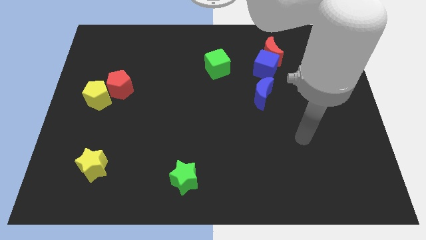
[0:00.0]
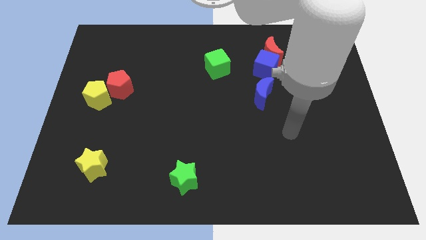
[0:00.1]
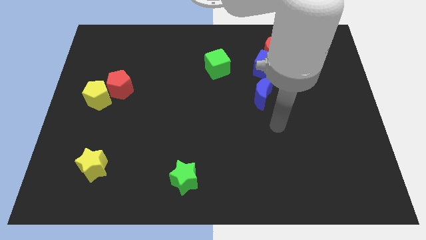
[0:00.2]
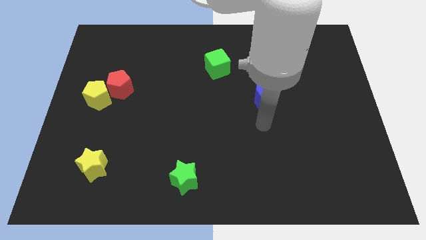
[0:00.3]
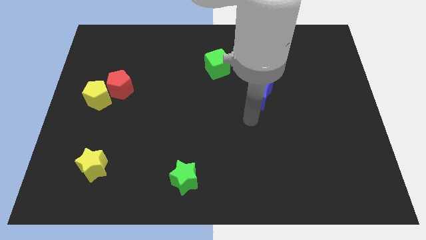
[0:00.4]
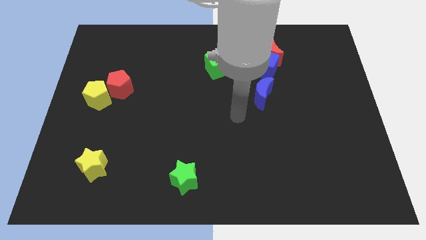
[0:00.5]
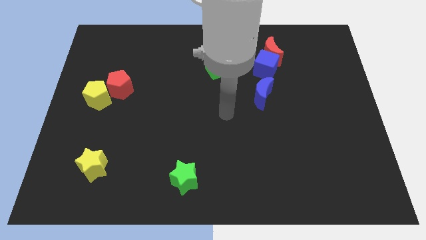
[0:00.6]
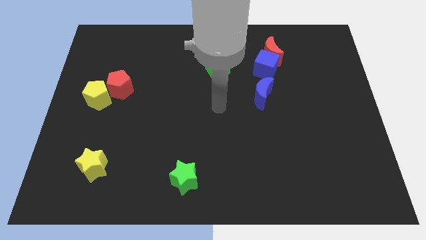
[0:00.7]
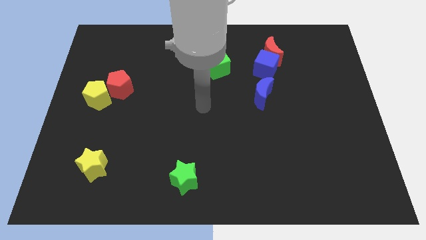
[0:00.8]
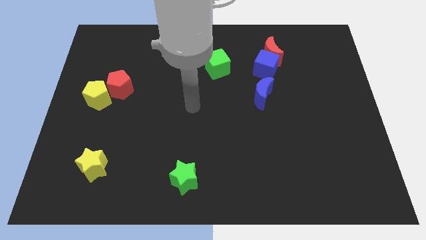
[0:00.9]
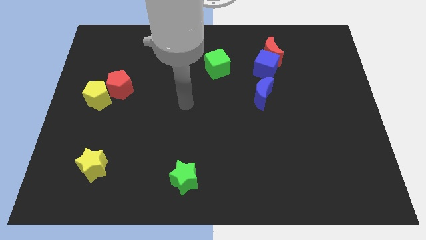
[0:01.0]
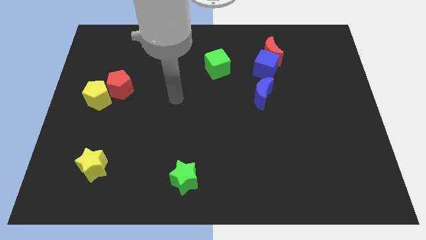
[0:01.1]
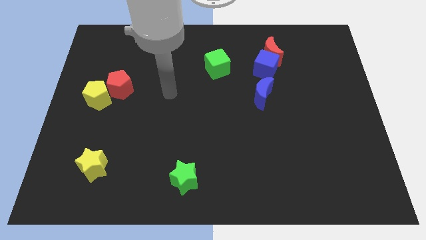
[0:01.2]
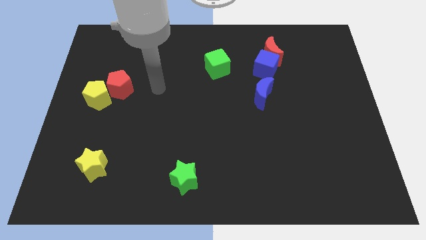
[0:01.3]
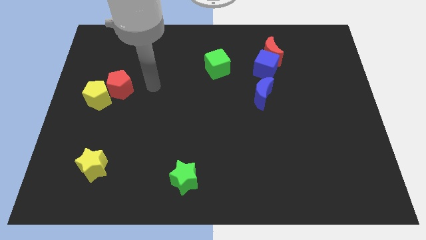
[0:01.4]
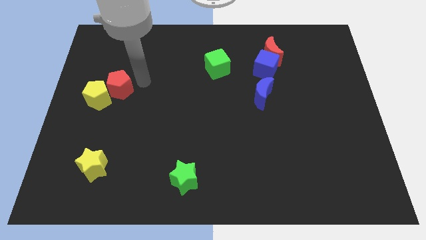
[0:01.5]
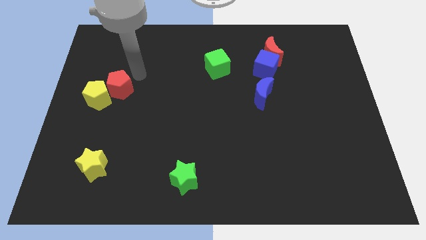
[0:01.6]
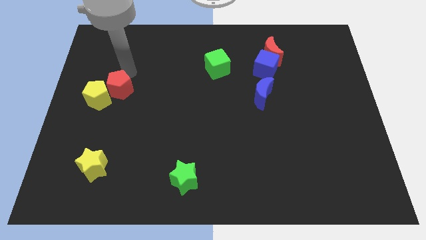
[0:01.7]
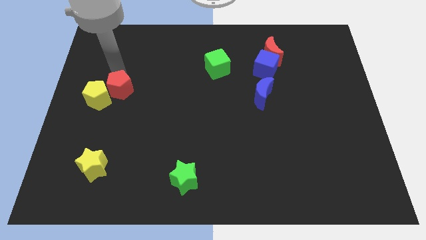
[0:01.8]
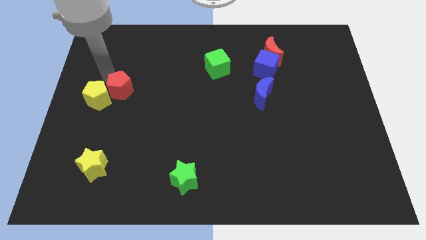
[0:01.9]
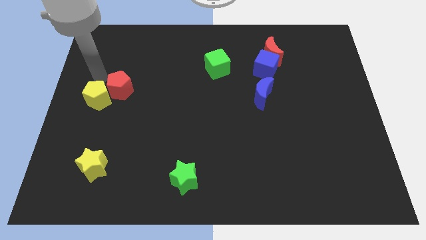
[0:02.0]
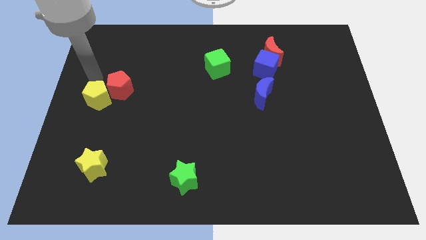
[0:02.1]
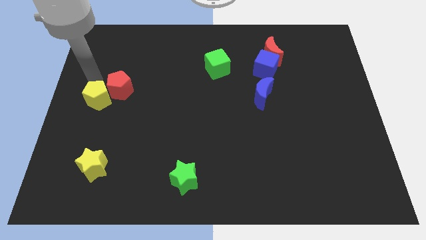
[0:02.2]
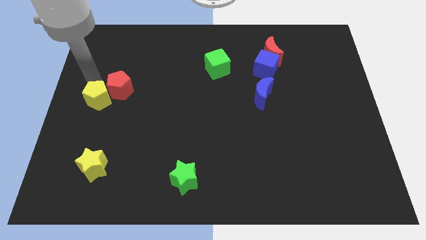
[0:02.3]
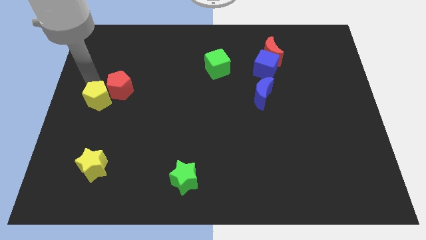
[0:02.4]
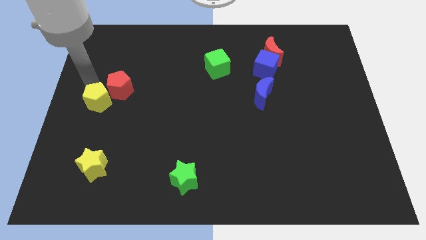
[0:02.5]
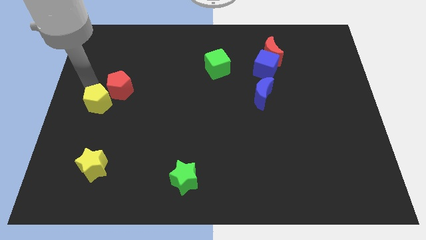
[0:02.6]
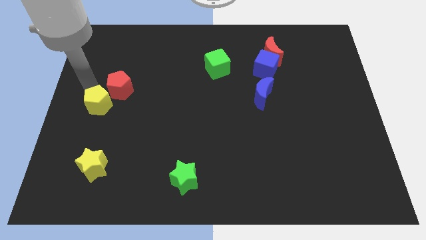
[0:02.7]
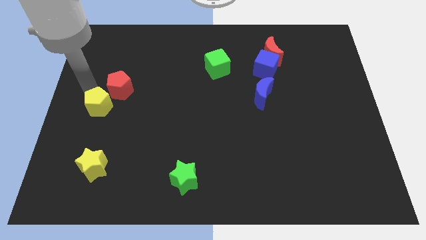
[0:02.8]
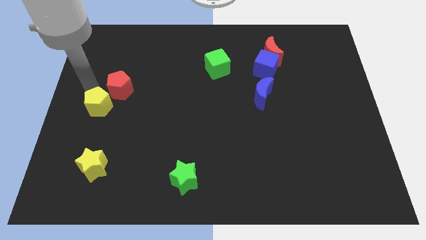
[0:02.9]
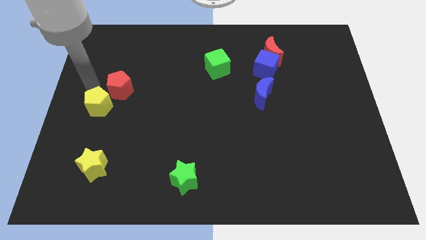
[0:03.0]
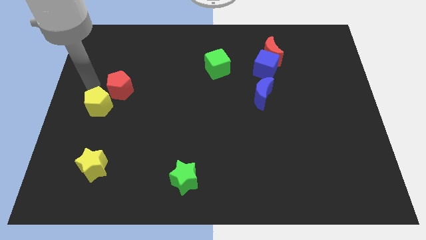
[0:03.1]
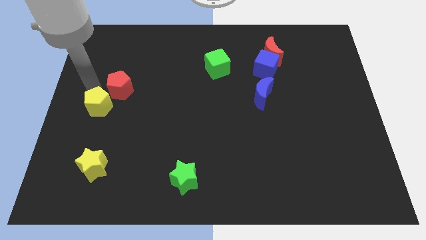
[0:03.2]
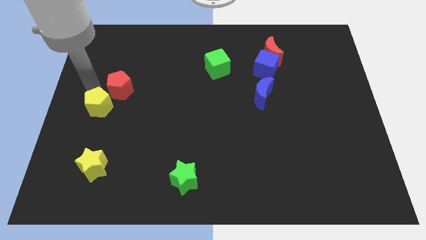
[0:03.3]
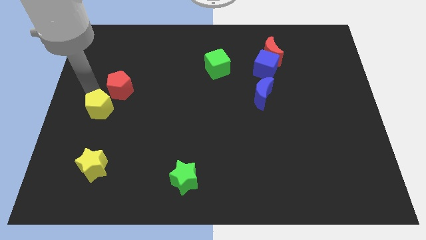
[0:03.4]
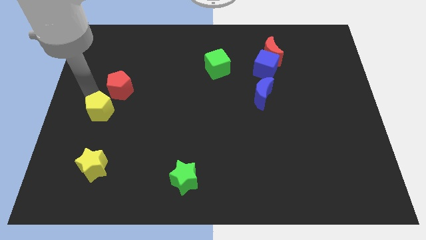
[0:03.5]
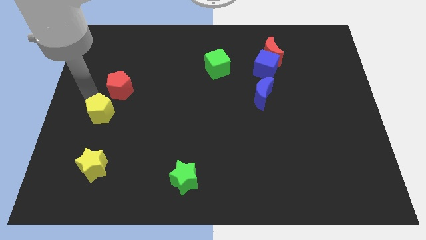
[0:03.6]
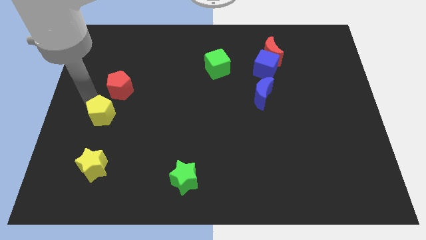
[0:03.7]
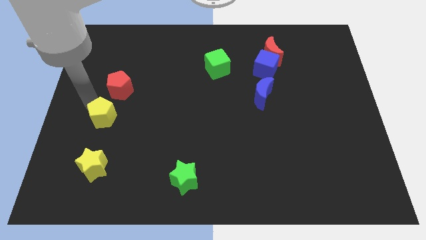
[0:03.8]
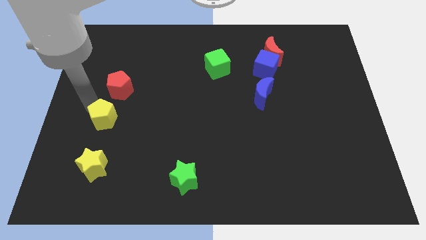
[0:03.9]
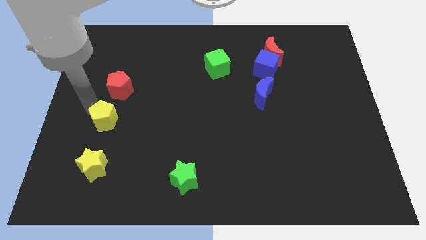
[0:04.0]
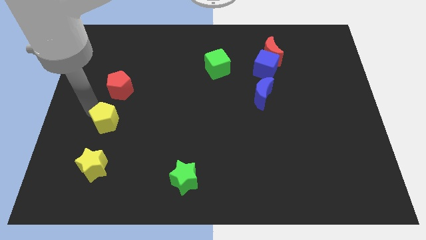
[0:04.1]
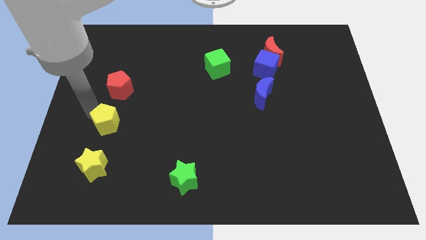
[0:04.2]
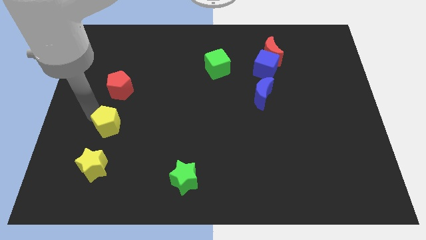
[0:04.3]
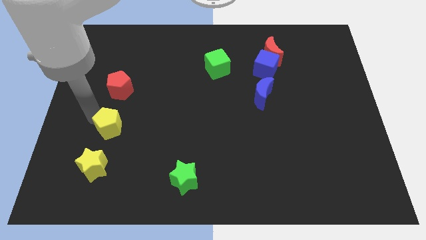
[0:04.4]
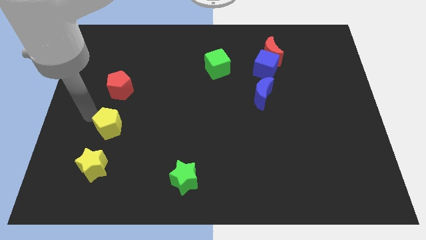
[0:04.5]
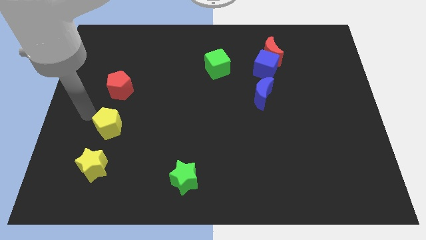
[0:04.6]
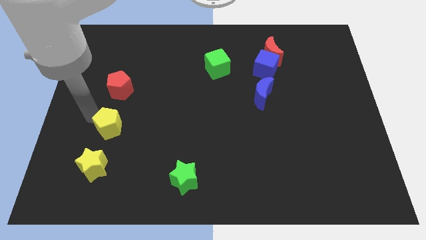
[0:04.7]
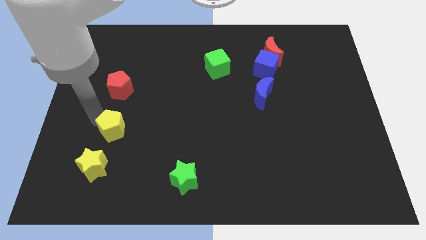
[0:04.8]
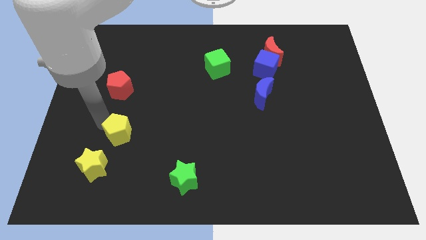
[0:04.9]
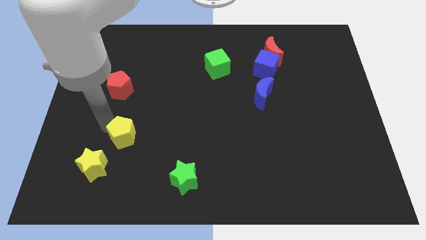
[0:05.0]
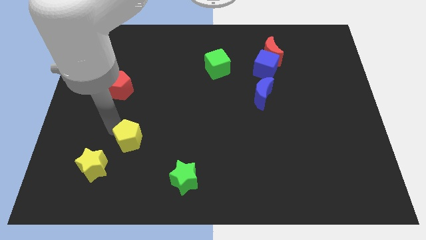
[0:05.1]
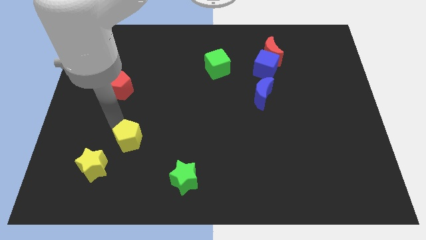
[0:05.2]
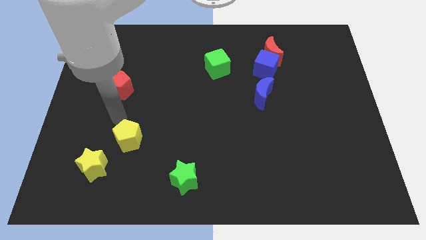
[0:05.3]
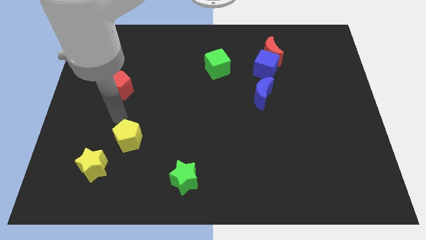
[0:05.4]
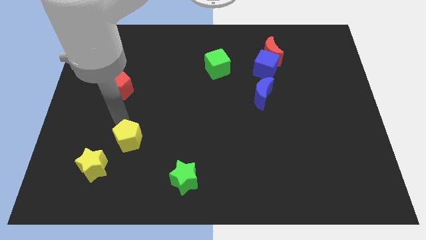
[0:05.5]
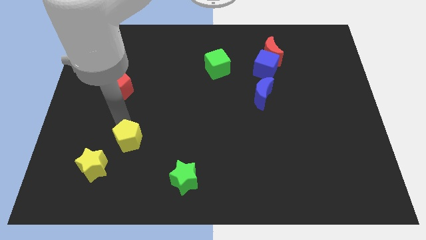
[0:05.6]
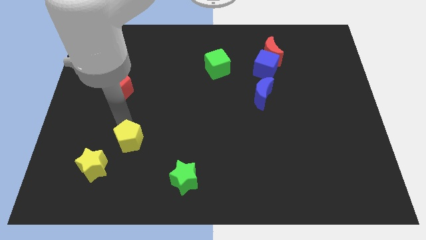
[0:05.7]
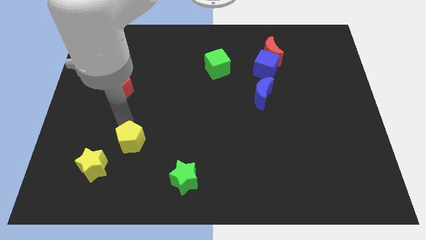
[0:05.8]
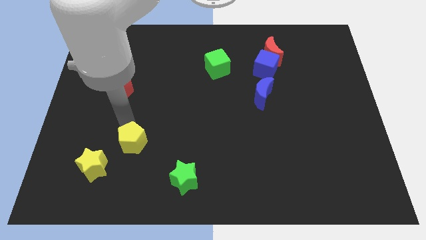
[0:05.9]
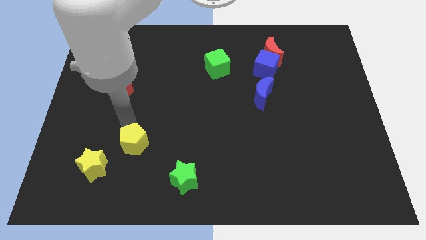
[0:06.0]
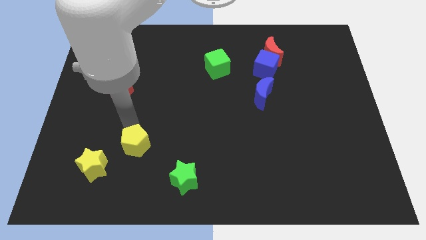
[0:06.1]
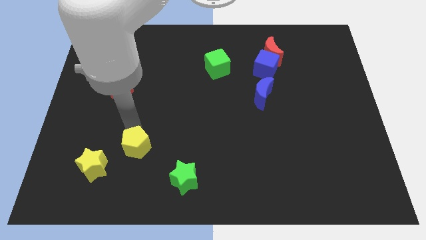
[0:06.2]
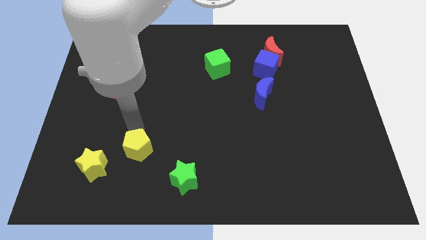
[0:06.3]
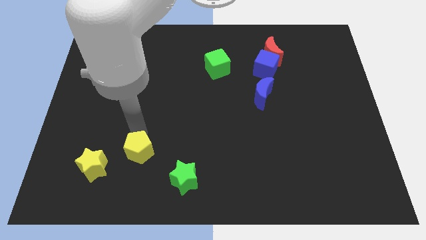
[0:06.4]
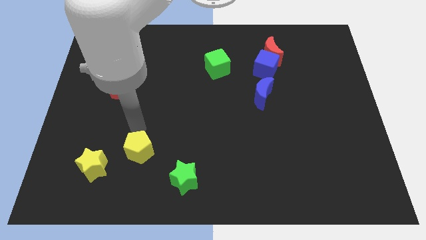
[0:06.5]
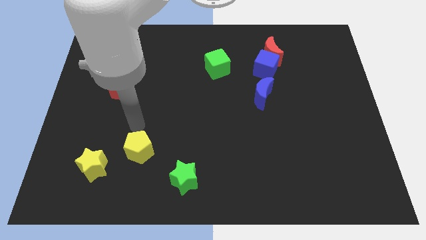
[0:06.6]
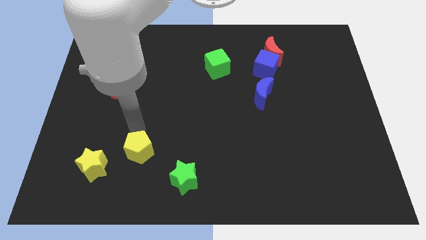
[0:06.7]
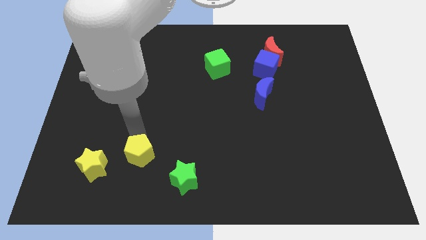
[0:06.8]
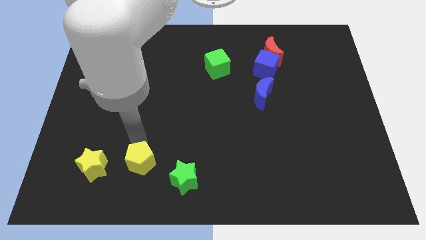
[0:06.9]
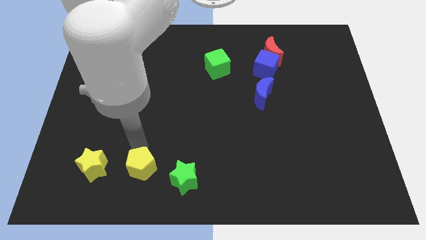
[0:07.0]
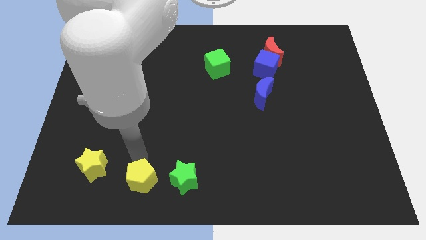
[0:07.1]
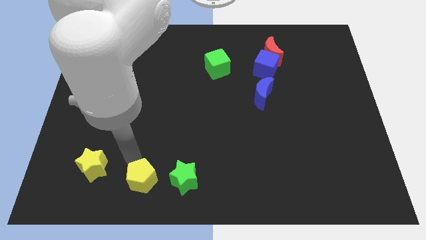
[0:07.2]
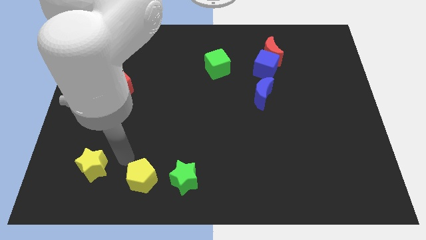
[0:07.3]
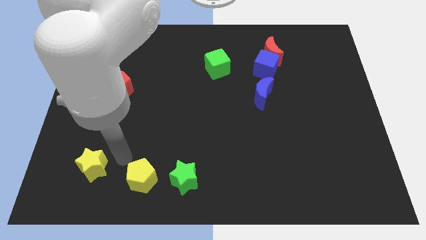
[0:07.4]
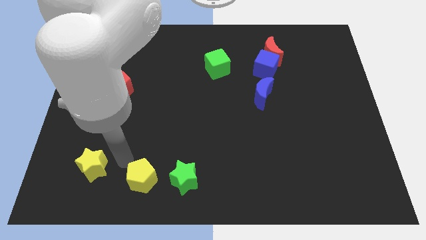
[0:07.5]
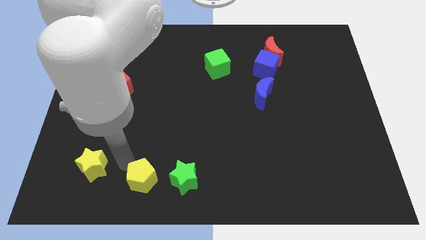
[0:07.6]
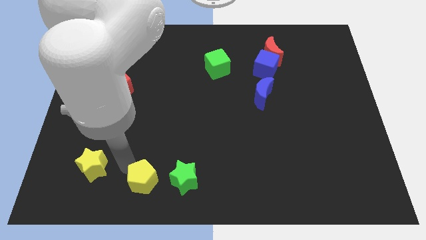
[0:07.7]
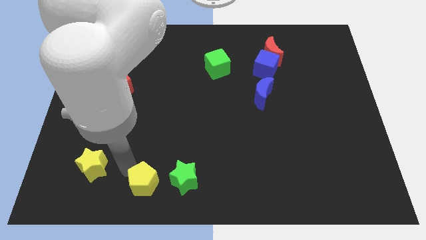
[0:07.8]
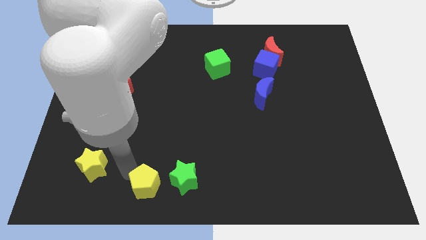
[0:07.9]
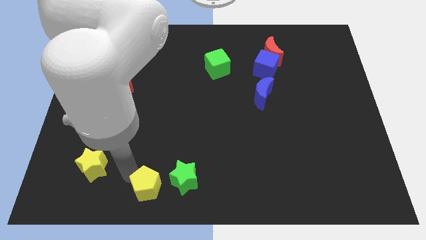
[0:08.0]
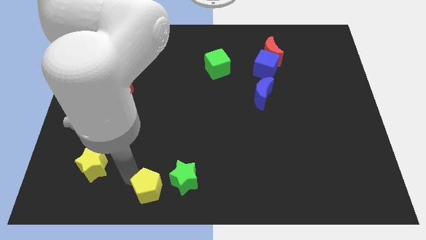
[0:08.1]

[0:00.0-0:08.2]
push the yellow pentagon to the bottom side
